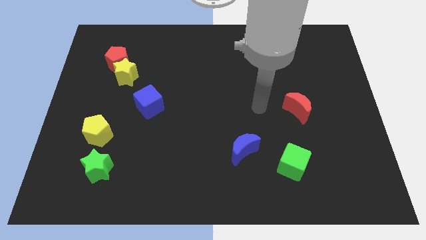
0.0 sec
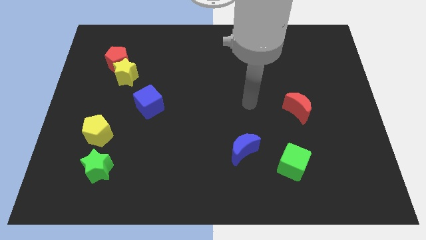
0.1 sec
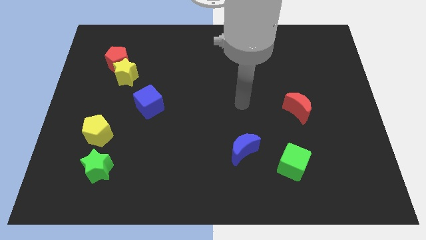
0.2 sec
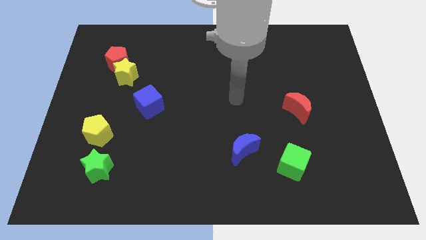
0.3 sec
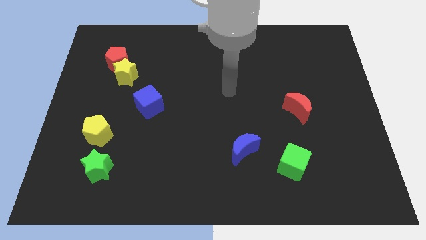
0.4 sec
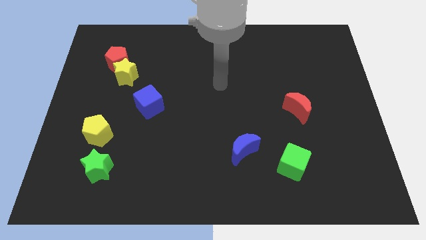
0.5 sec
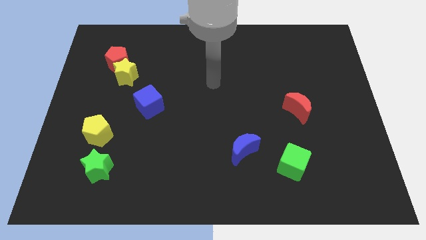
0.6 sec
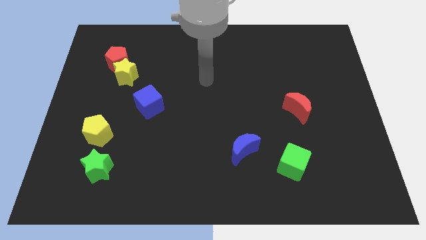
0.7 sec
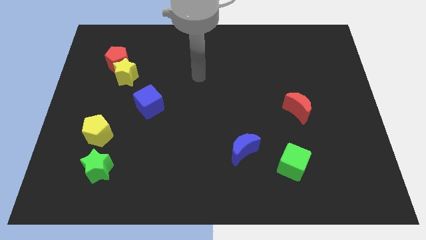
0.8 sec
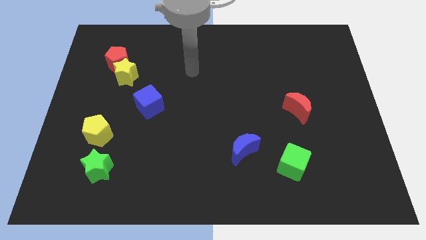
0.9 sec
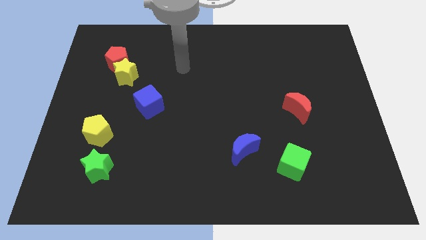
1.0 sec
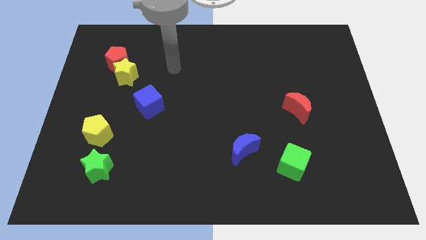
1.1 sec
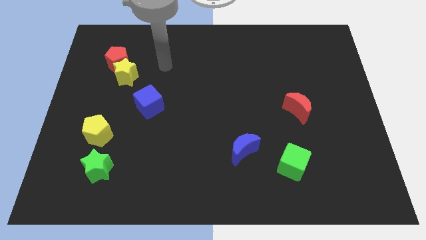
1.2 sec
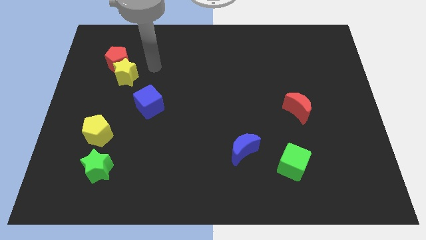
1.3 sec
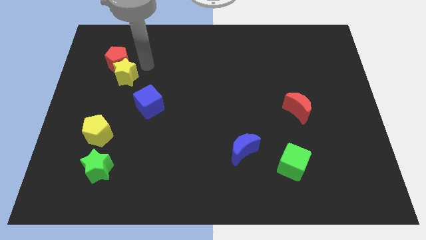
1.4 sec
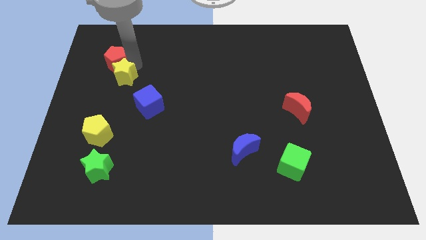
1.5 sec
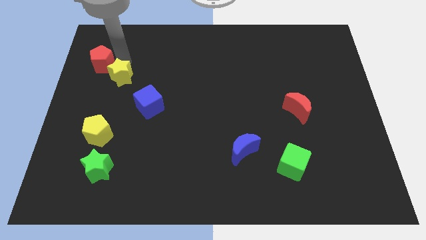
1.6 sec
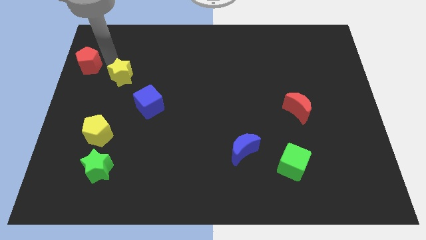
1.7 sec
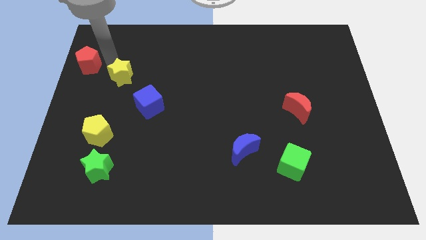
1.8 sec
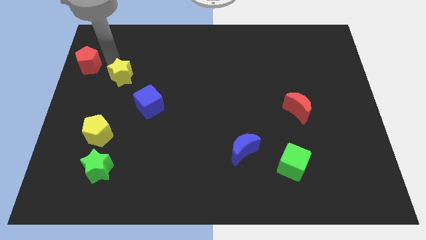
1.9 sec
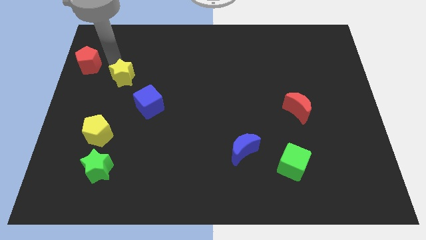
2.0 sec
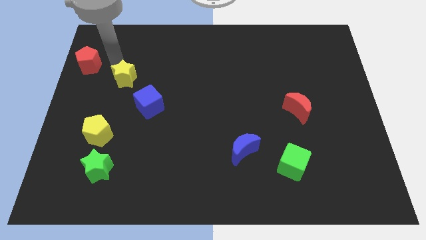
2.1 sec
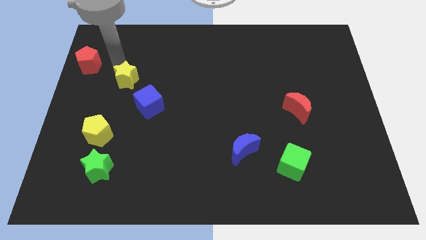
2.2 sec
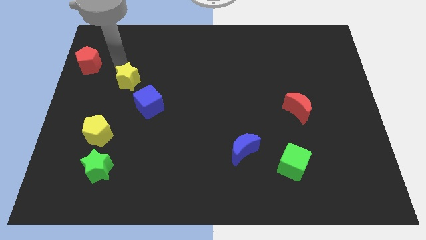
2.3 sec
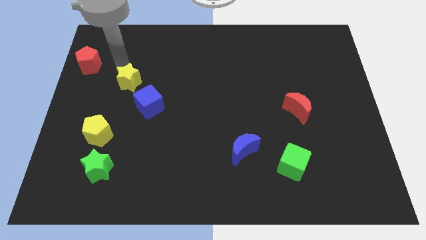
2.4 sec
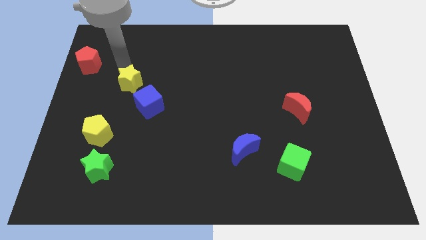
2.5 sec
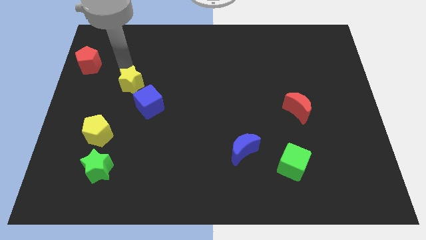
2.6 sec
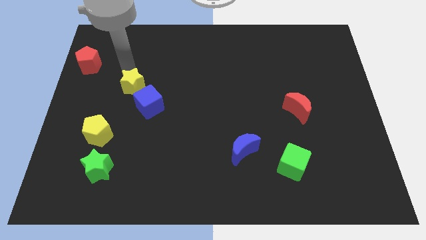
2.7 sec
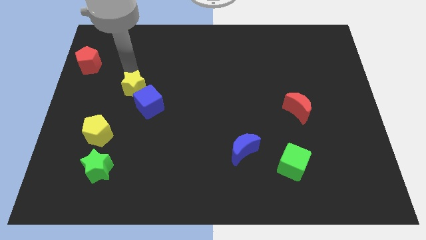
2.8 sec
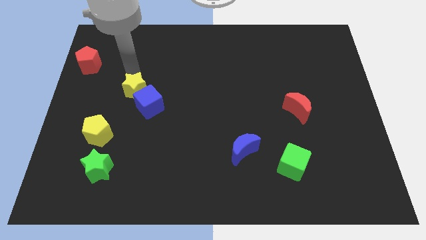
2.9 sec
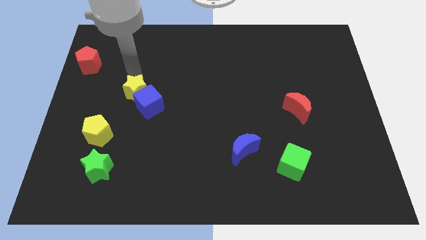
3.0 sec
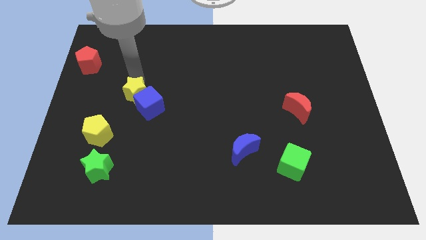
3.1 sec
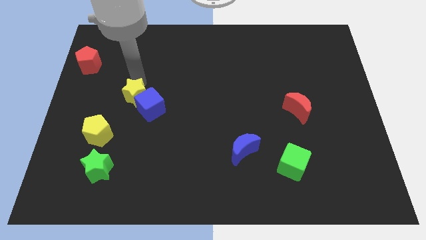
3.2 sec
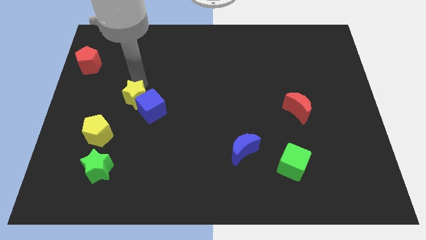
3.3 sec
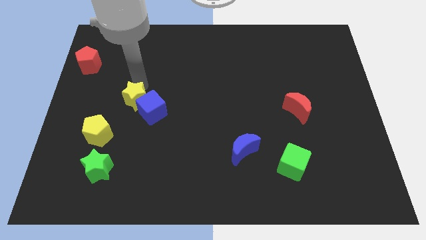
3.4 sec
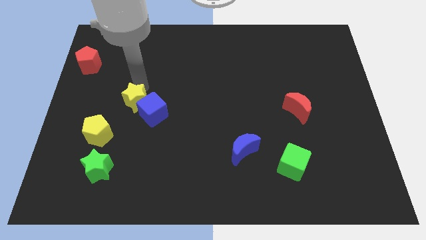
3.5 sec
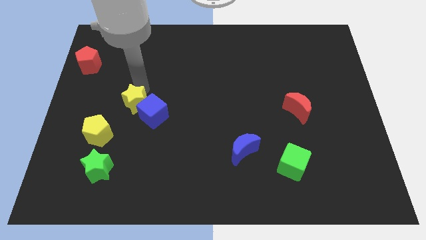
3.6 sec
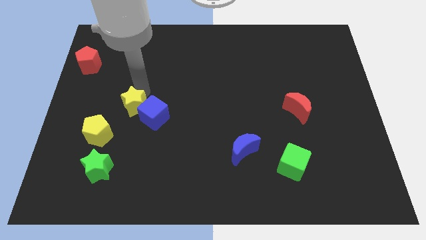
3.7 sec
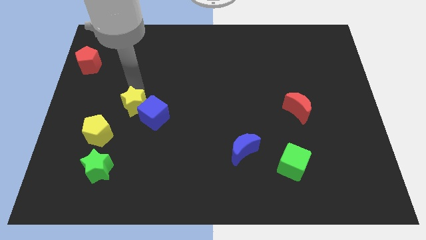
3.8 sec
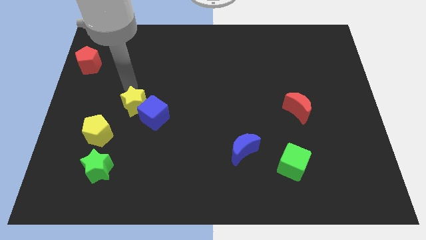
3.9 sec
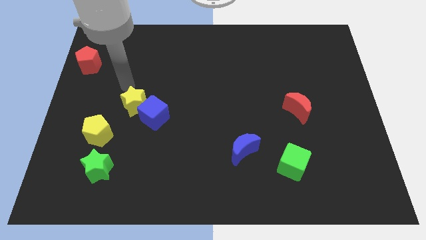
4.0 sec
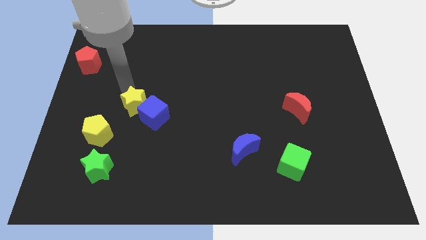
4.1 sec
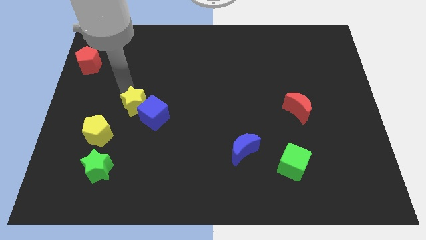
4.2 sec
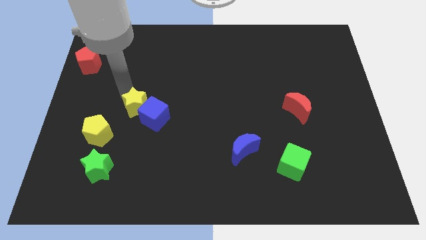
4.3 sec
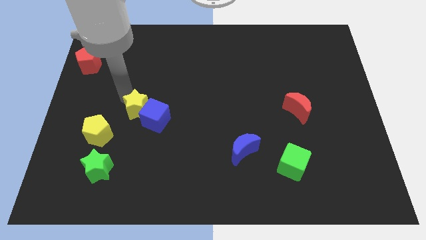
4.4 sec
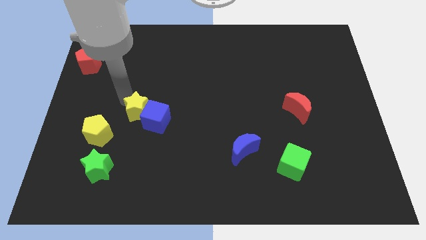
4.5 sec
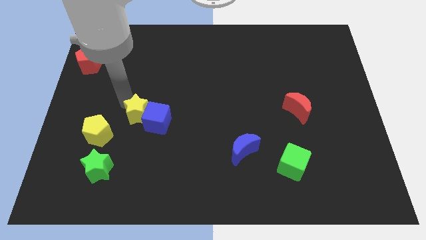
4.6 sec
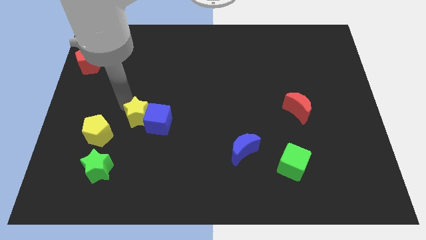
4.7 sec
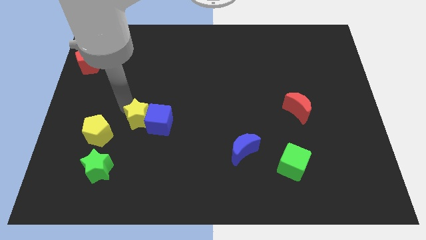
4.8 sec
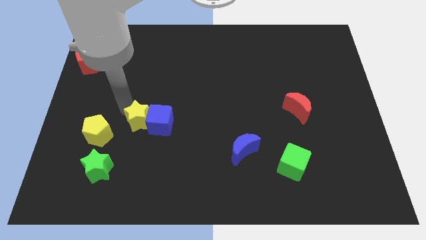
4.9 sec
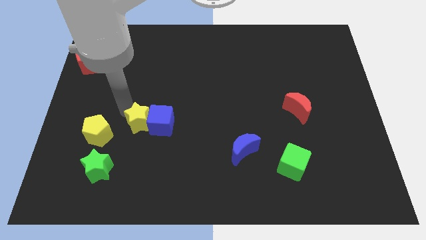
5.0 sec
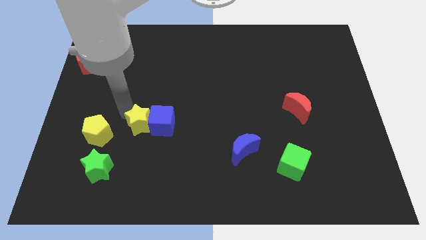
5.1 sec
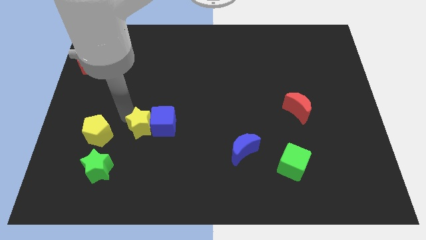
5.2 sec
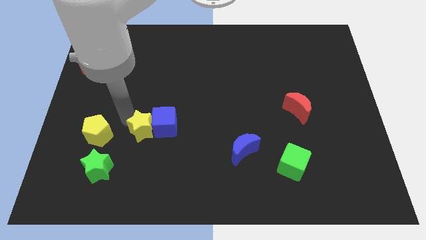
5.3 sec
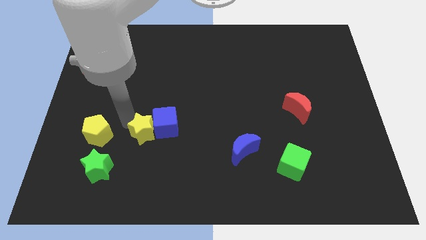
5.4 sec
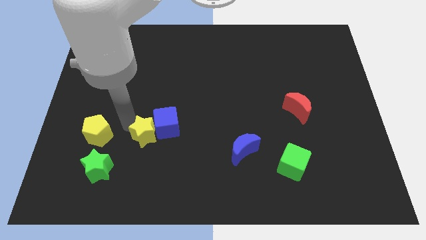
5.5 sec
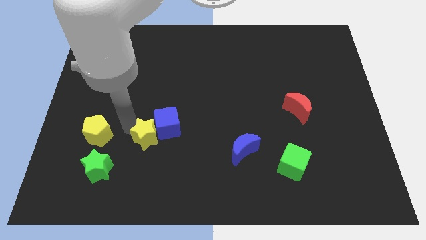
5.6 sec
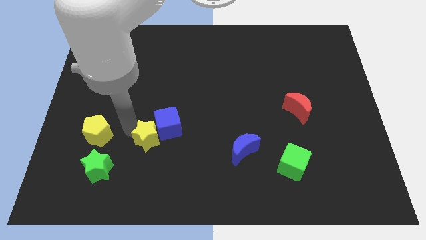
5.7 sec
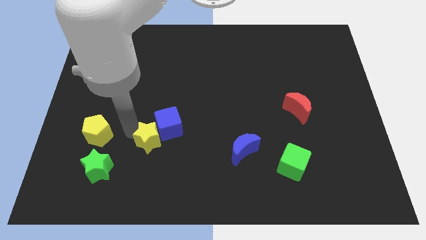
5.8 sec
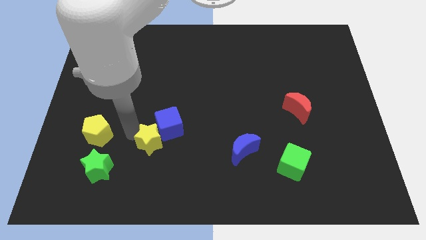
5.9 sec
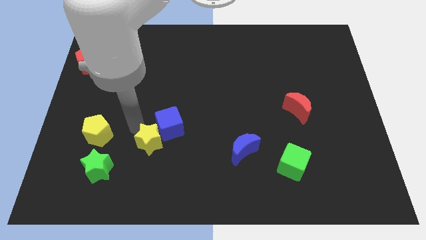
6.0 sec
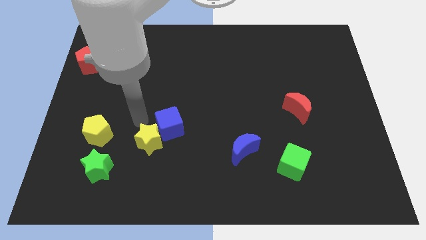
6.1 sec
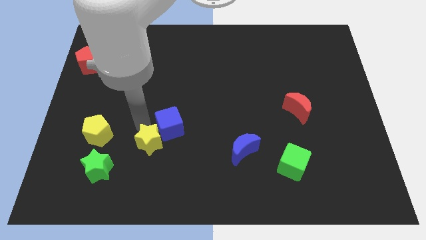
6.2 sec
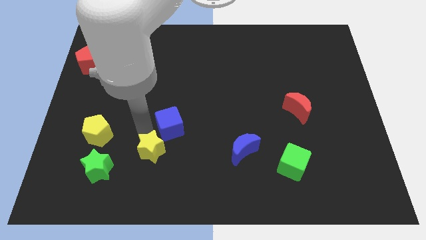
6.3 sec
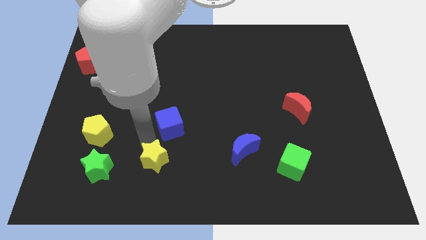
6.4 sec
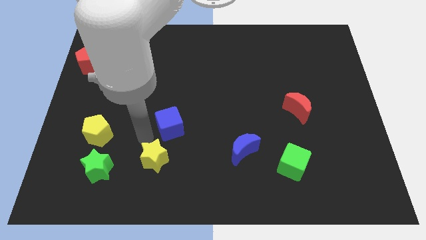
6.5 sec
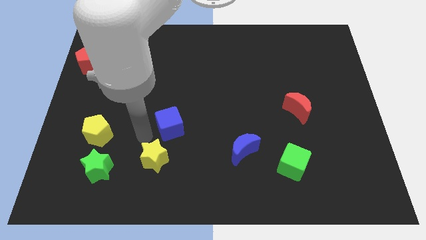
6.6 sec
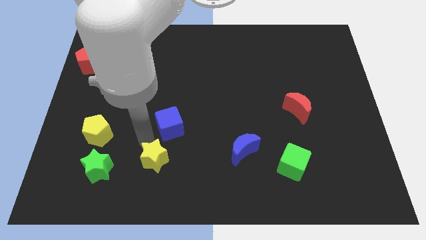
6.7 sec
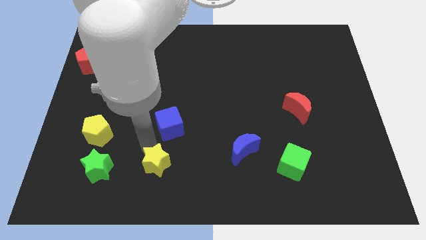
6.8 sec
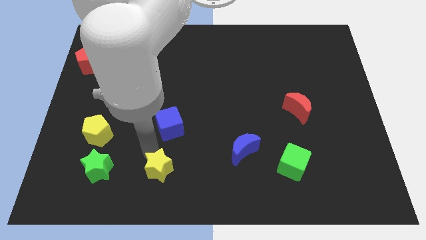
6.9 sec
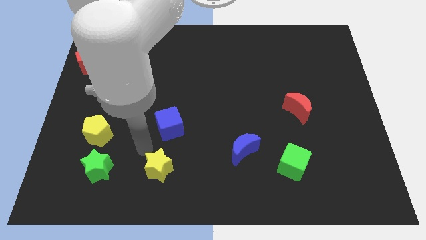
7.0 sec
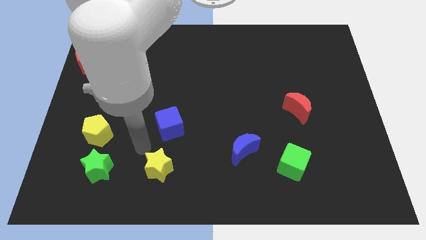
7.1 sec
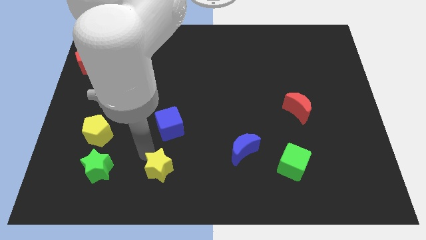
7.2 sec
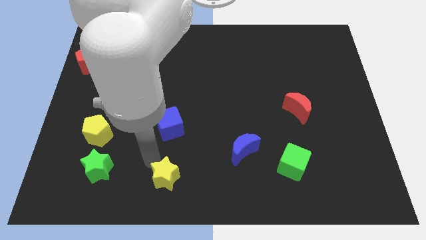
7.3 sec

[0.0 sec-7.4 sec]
move the yellow star to the bottom side
